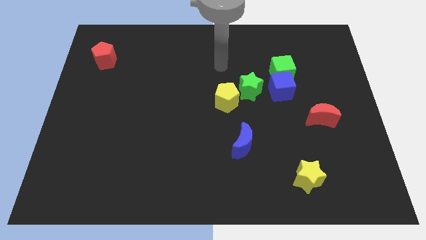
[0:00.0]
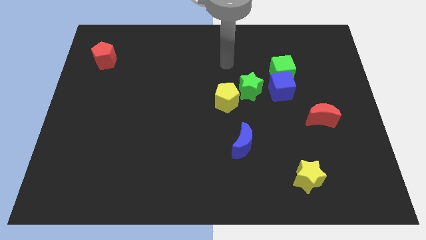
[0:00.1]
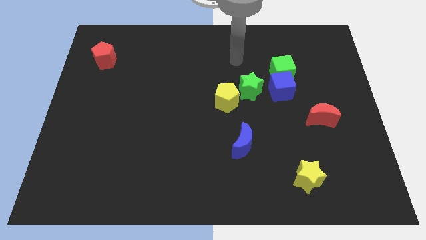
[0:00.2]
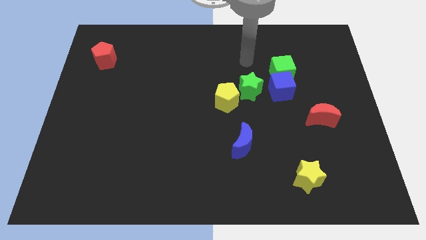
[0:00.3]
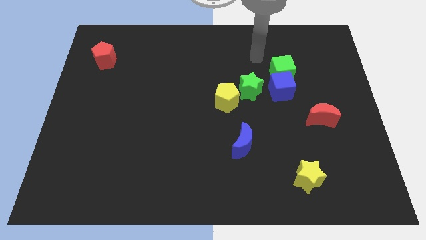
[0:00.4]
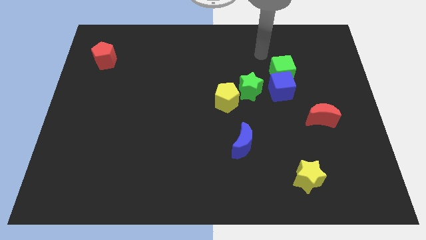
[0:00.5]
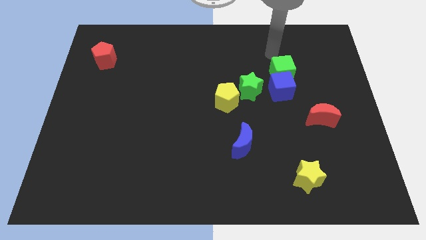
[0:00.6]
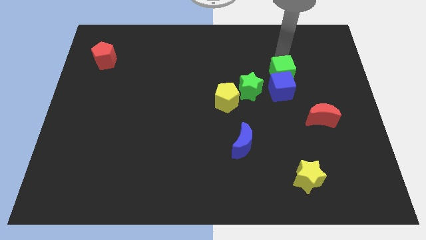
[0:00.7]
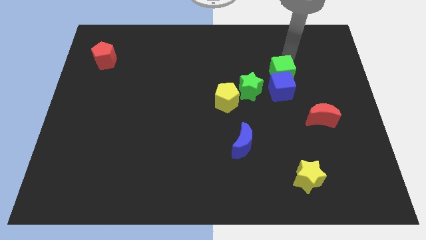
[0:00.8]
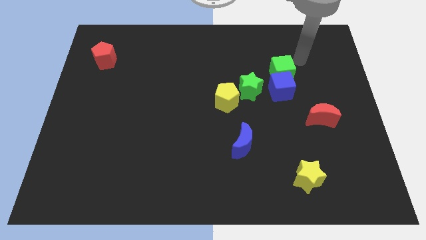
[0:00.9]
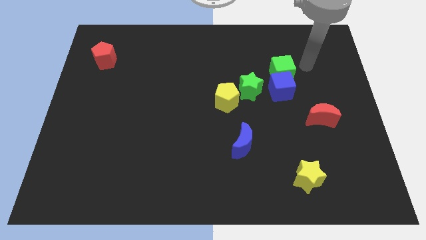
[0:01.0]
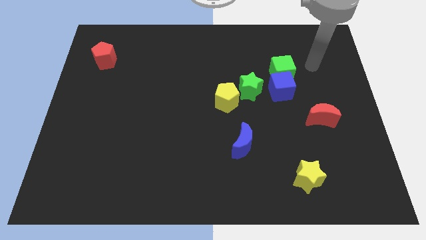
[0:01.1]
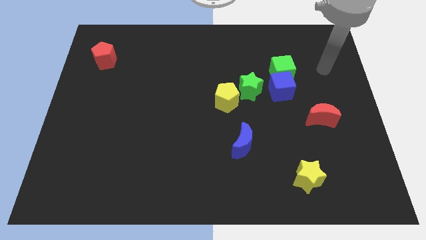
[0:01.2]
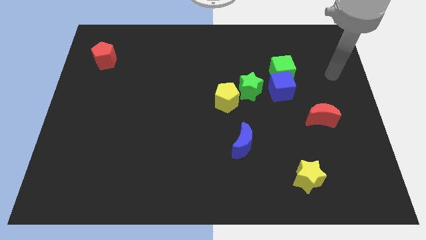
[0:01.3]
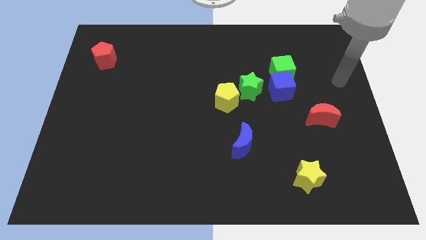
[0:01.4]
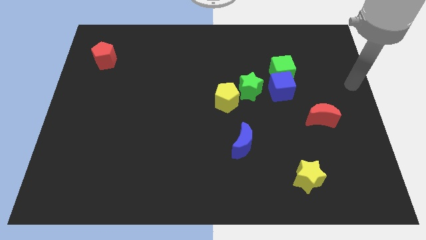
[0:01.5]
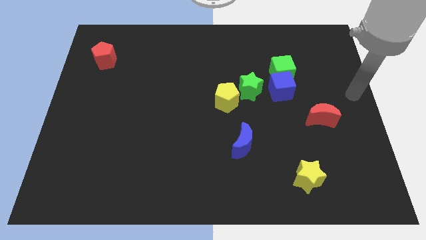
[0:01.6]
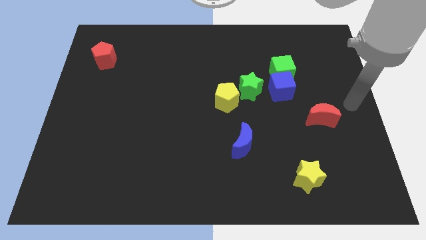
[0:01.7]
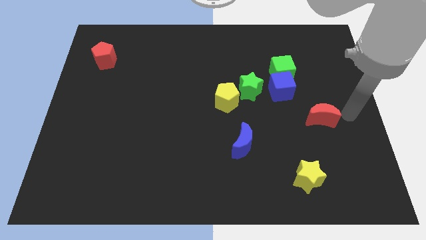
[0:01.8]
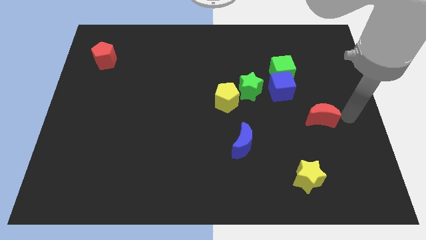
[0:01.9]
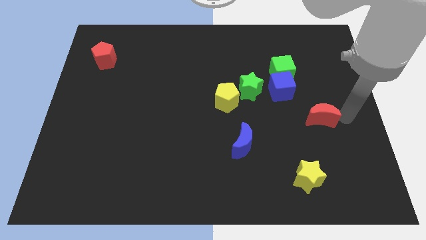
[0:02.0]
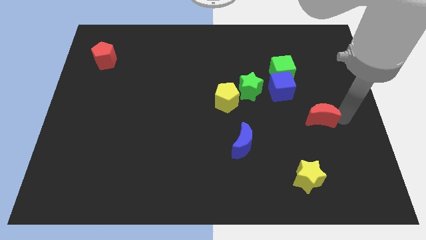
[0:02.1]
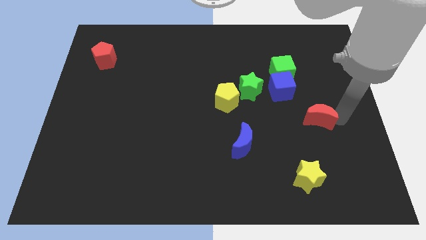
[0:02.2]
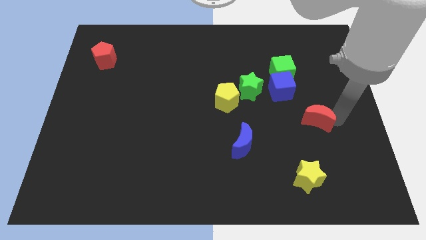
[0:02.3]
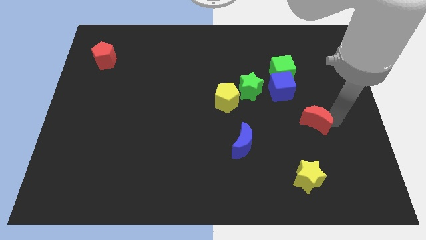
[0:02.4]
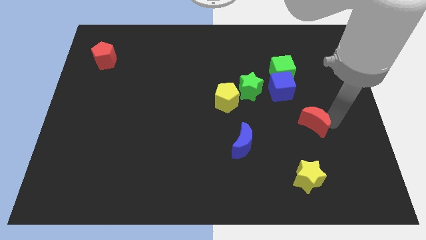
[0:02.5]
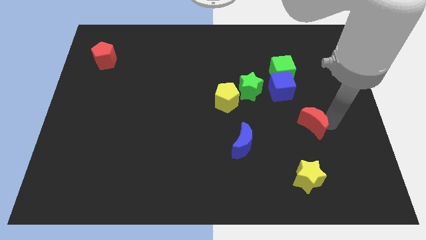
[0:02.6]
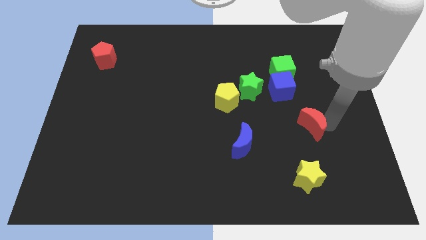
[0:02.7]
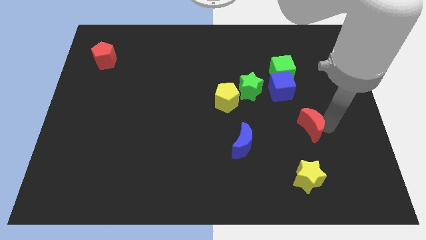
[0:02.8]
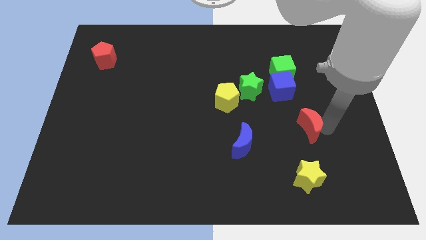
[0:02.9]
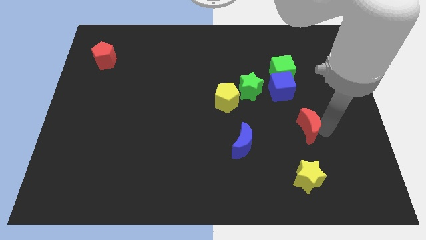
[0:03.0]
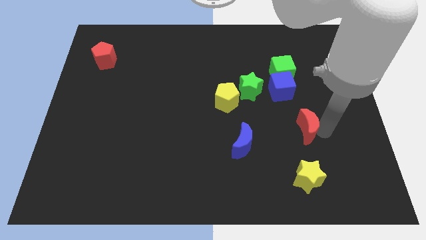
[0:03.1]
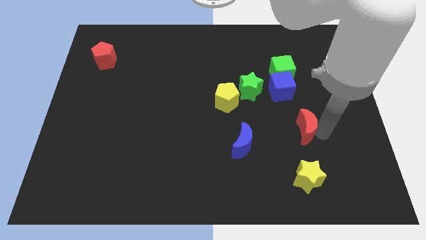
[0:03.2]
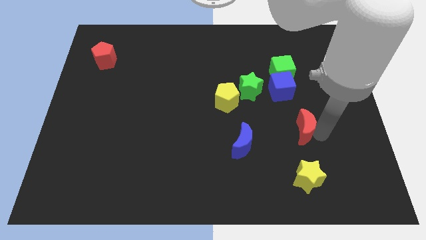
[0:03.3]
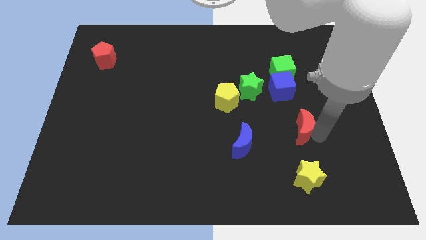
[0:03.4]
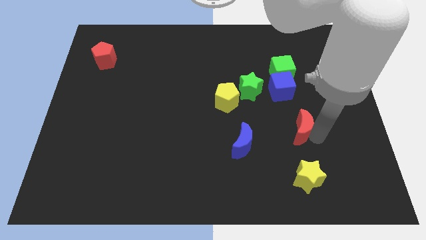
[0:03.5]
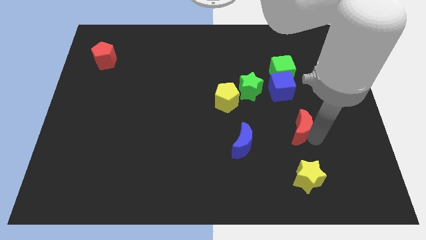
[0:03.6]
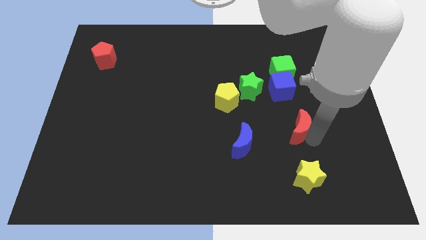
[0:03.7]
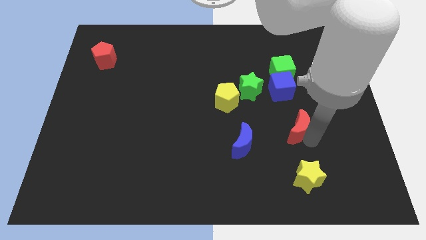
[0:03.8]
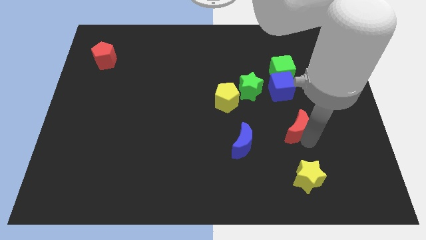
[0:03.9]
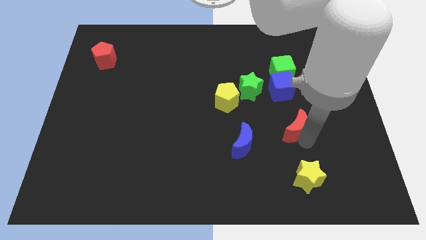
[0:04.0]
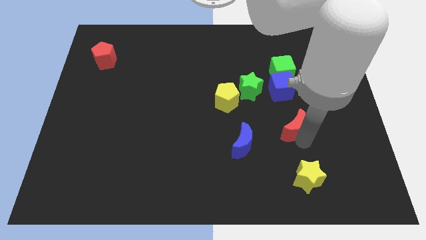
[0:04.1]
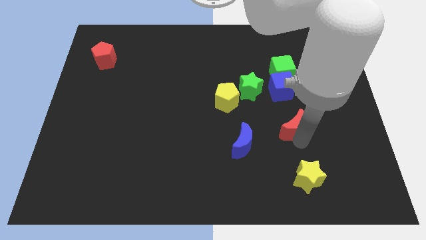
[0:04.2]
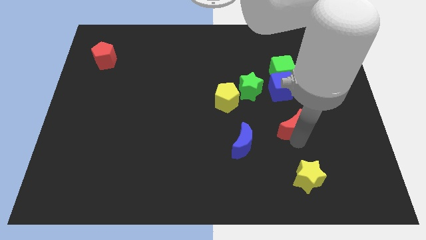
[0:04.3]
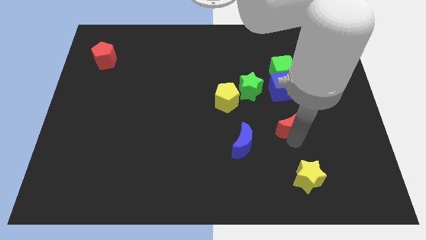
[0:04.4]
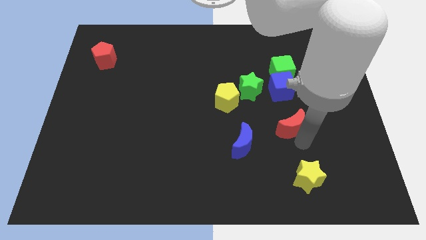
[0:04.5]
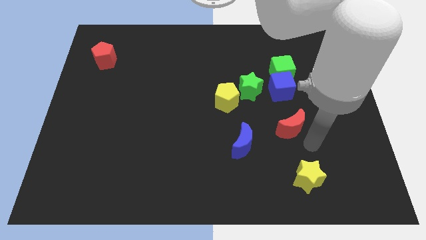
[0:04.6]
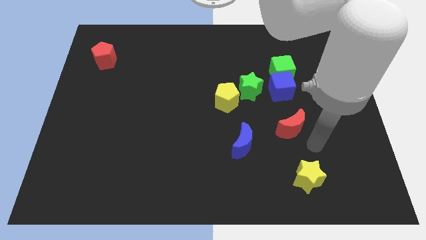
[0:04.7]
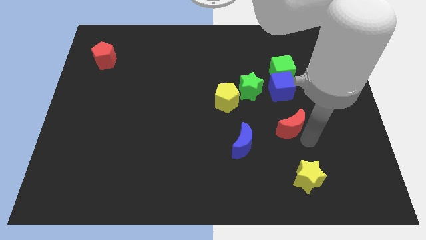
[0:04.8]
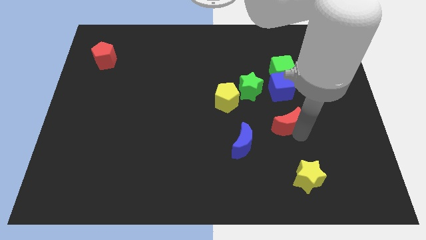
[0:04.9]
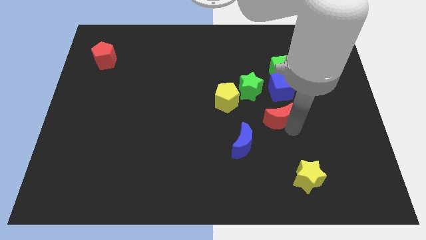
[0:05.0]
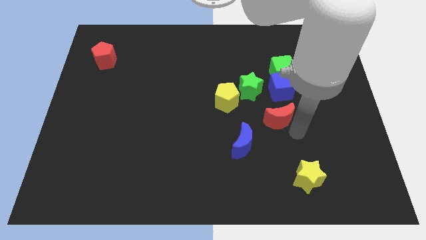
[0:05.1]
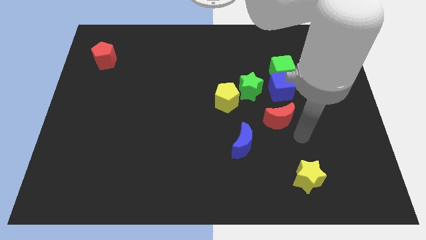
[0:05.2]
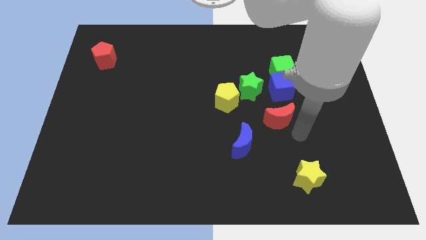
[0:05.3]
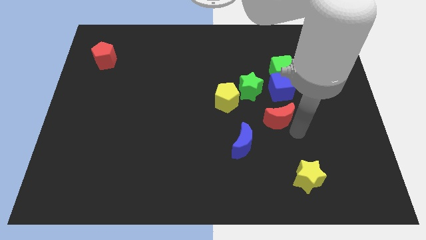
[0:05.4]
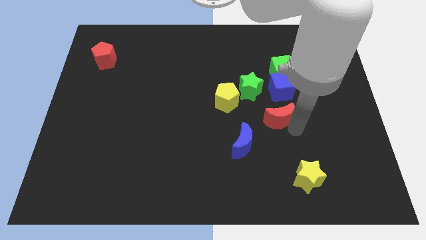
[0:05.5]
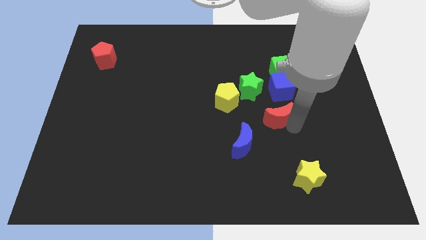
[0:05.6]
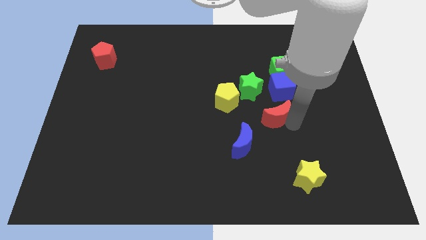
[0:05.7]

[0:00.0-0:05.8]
move the red moon to the bottom left of the blue cube

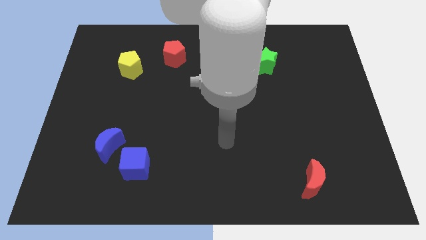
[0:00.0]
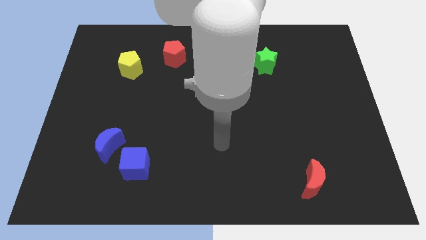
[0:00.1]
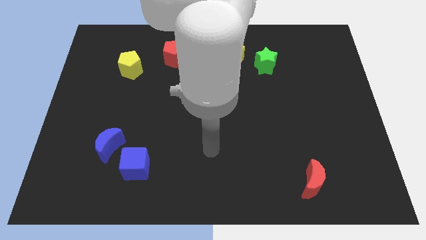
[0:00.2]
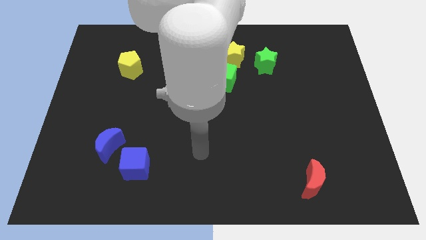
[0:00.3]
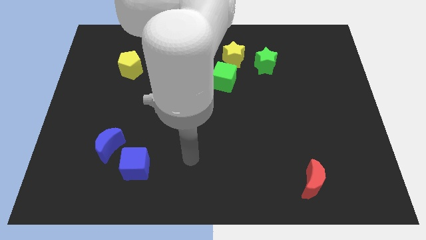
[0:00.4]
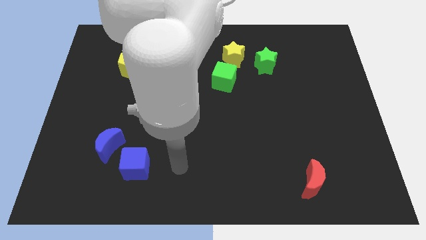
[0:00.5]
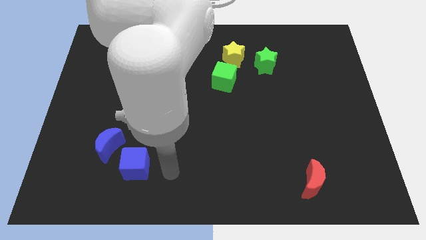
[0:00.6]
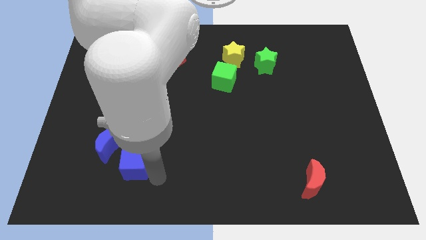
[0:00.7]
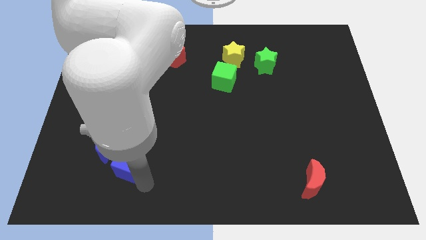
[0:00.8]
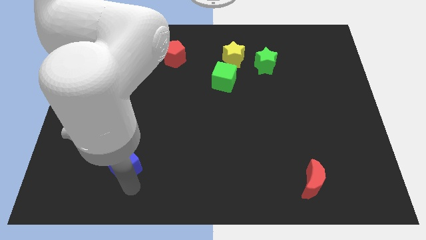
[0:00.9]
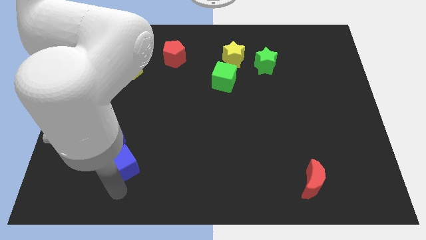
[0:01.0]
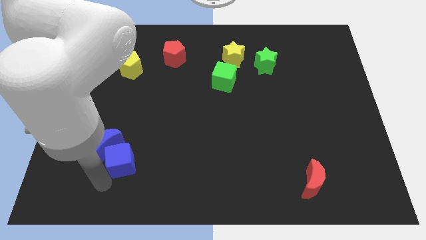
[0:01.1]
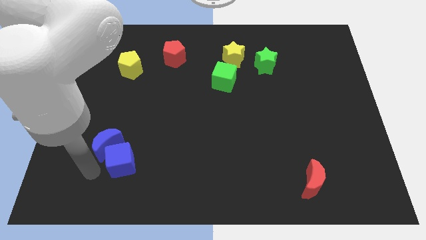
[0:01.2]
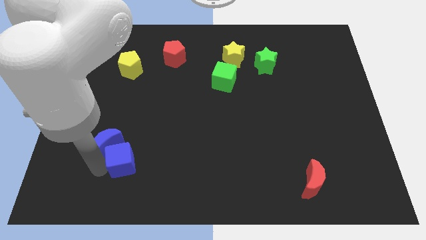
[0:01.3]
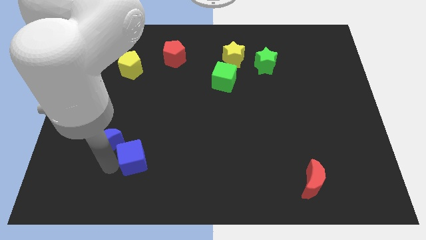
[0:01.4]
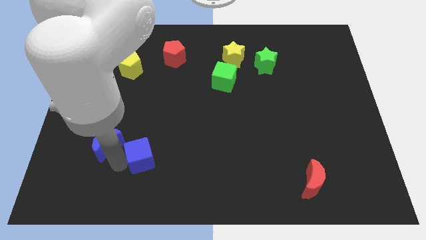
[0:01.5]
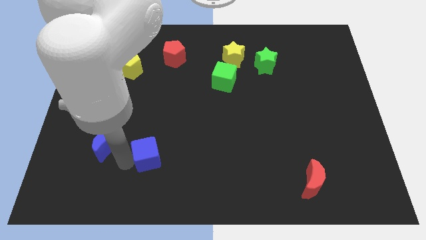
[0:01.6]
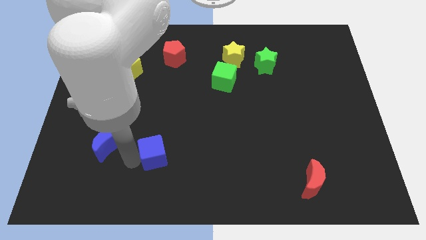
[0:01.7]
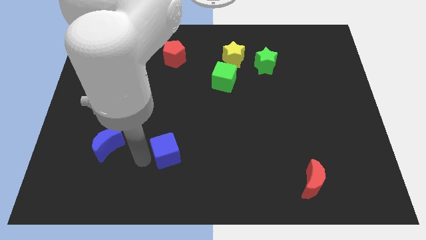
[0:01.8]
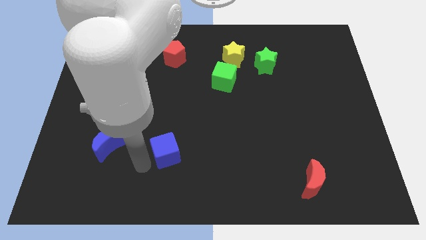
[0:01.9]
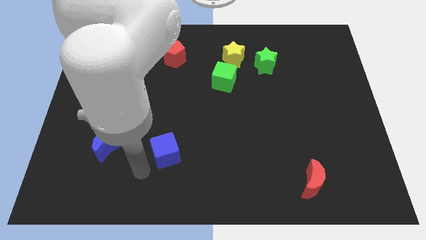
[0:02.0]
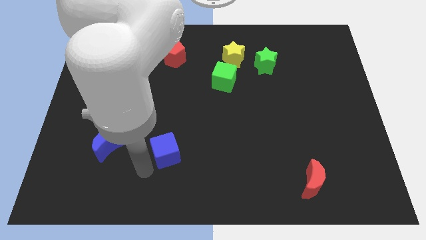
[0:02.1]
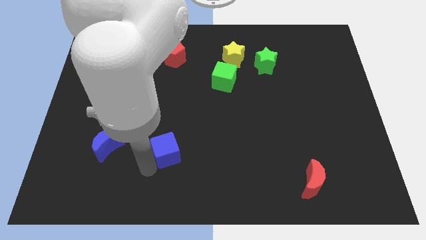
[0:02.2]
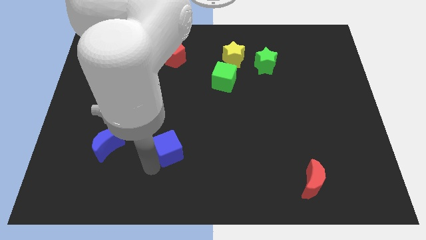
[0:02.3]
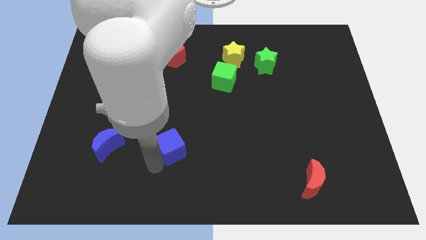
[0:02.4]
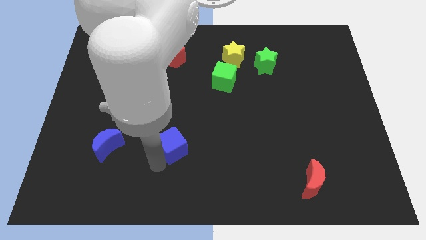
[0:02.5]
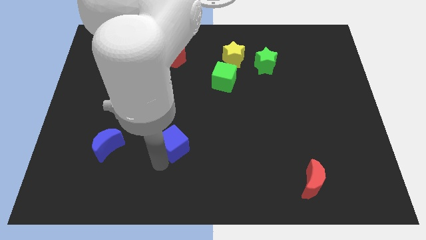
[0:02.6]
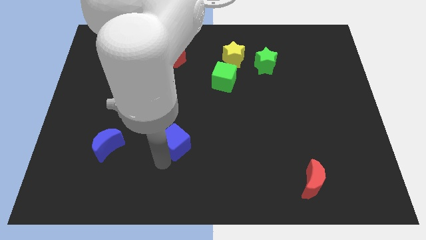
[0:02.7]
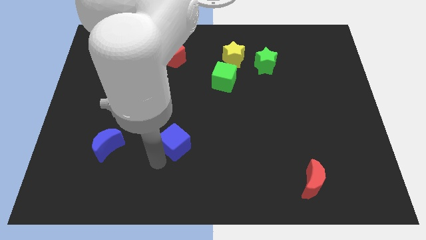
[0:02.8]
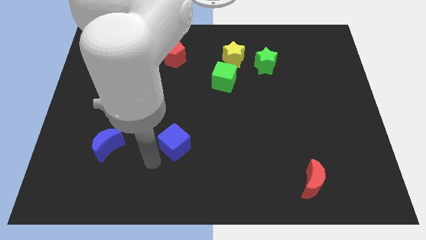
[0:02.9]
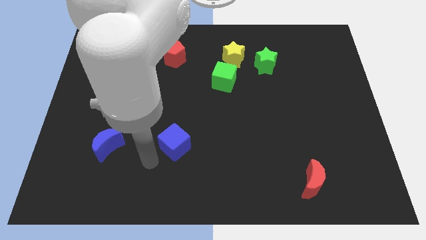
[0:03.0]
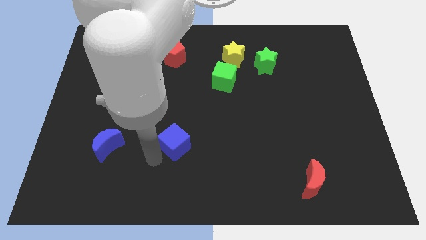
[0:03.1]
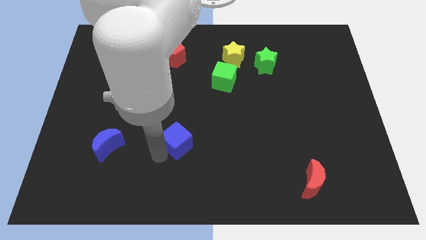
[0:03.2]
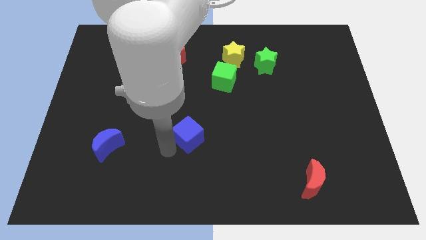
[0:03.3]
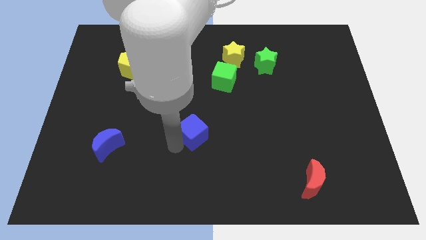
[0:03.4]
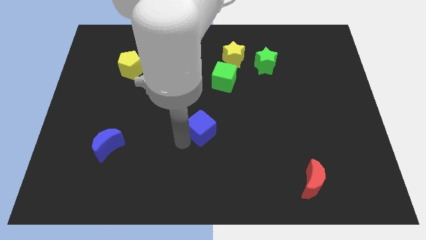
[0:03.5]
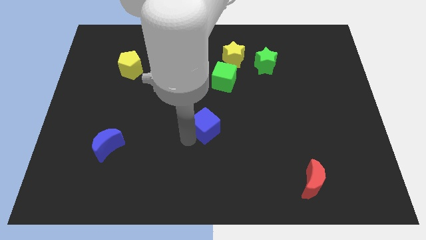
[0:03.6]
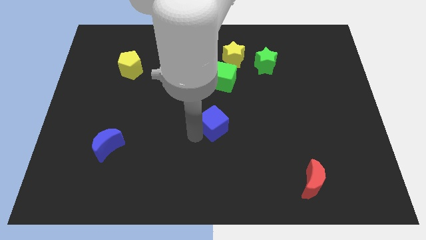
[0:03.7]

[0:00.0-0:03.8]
push the blue cube below the green cube
